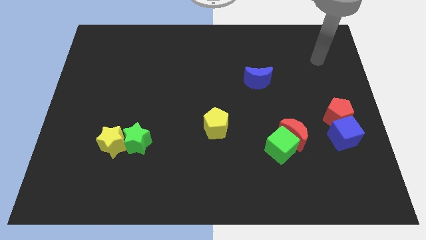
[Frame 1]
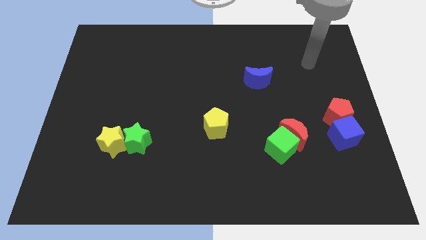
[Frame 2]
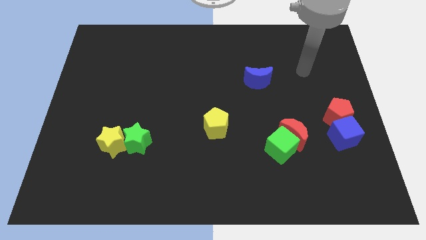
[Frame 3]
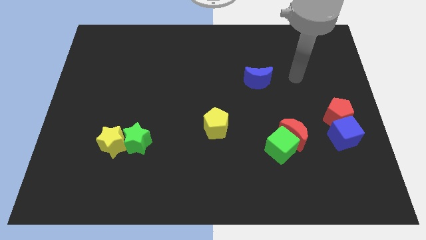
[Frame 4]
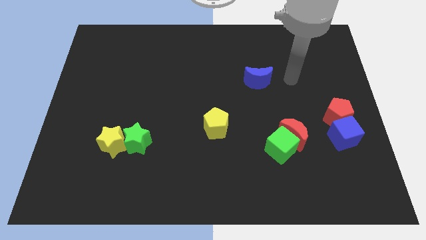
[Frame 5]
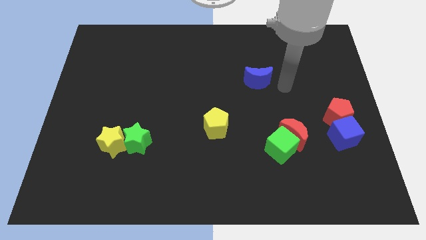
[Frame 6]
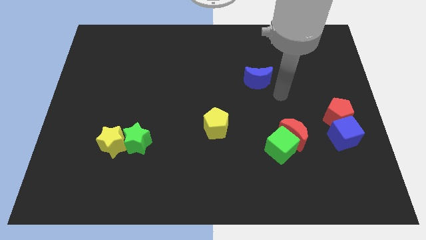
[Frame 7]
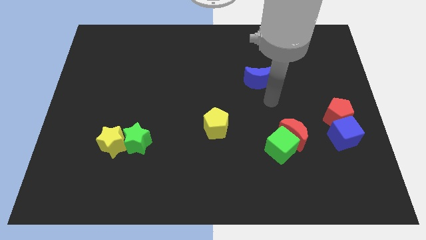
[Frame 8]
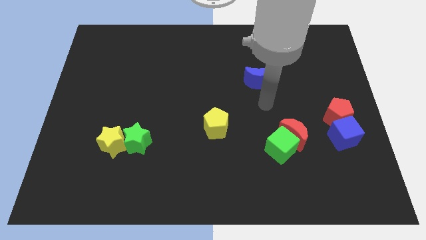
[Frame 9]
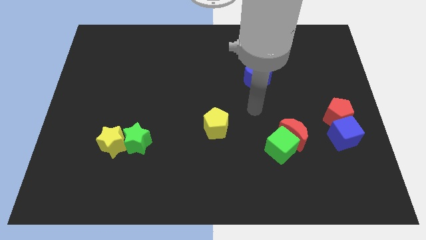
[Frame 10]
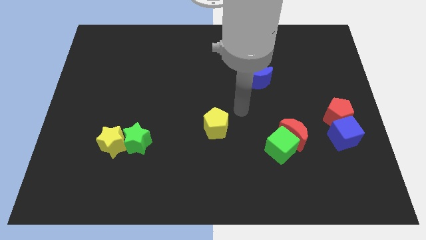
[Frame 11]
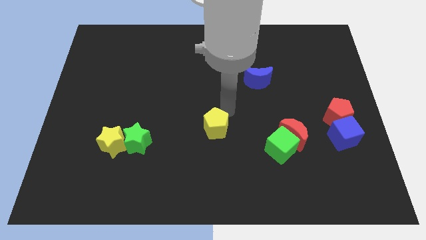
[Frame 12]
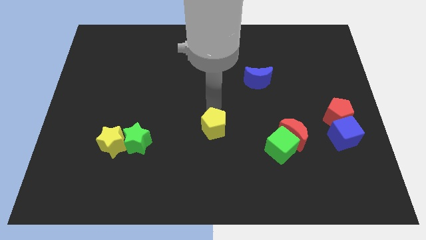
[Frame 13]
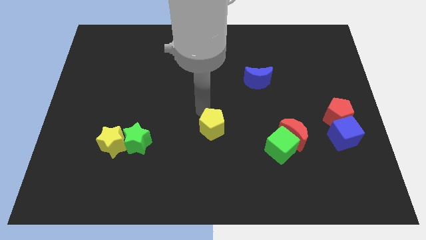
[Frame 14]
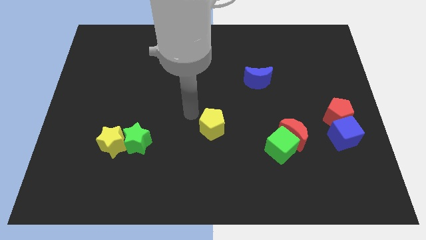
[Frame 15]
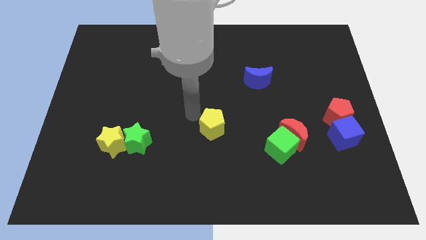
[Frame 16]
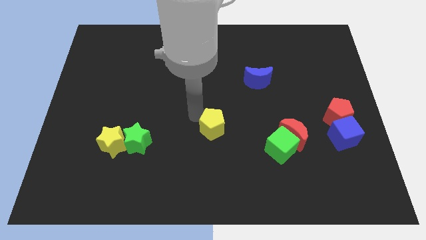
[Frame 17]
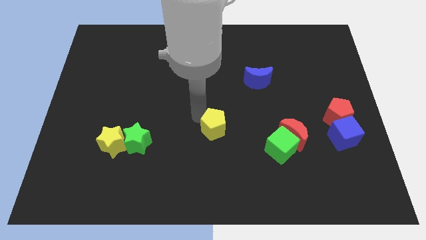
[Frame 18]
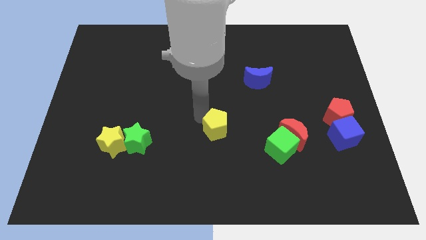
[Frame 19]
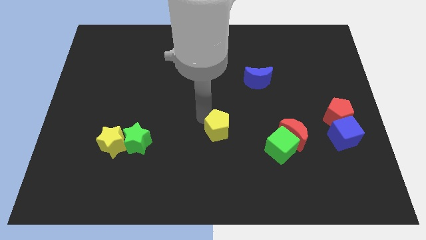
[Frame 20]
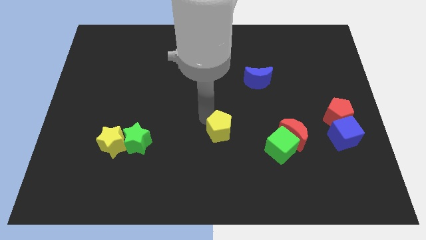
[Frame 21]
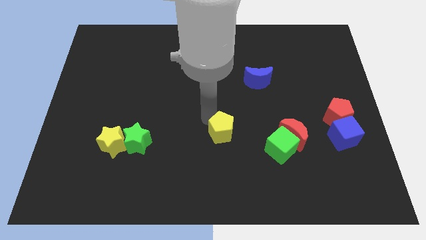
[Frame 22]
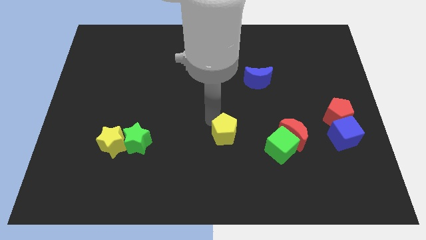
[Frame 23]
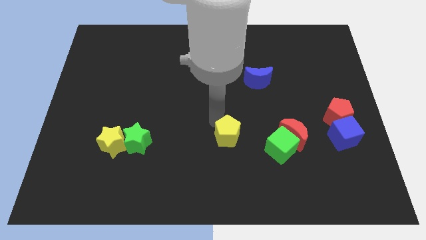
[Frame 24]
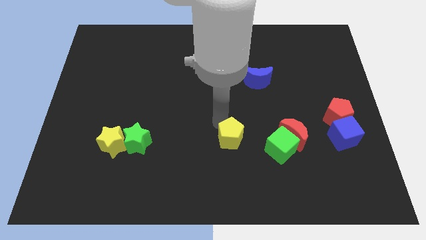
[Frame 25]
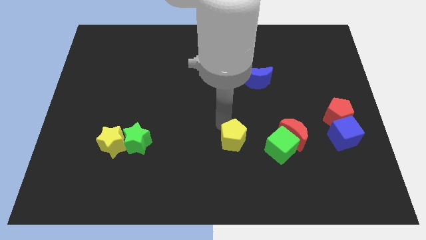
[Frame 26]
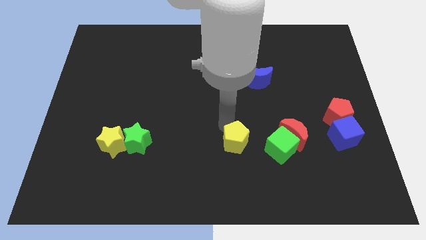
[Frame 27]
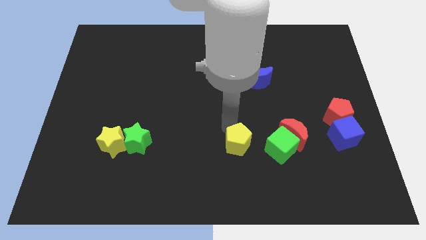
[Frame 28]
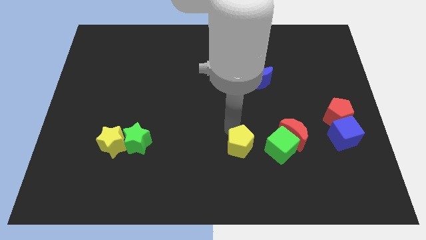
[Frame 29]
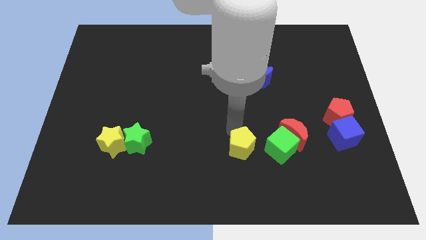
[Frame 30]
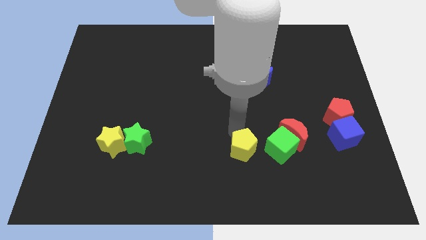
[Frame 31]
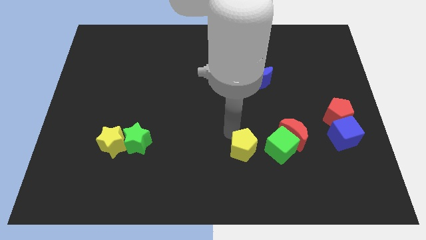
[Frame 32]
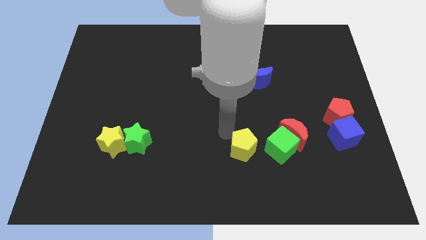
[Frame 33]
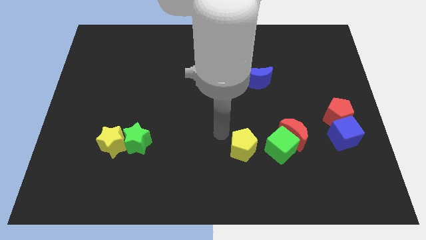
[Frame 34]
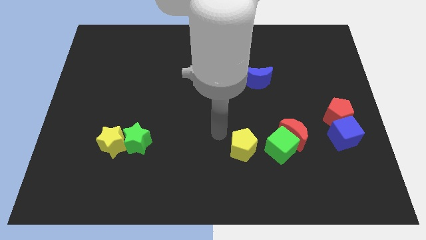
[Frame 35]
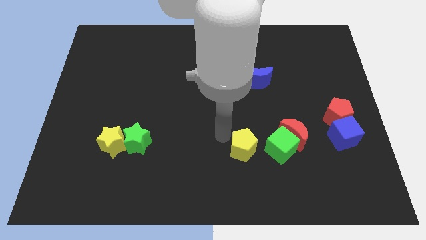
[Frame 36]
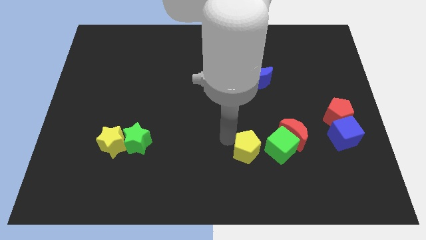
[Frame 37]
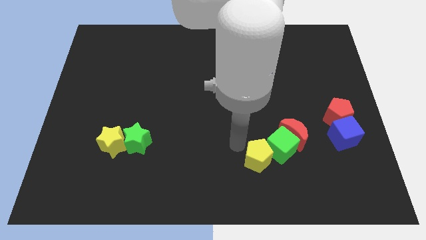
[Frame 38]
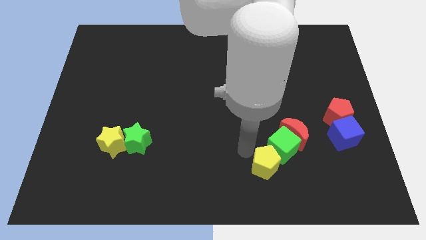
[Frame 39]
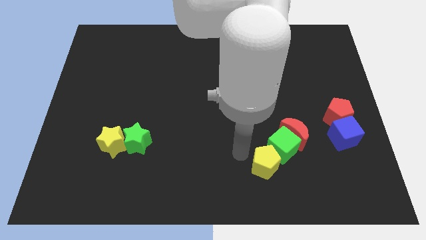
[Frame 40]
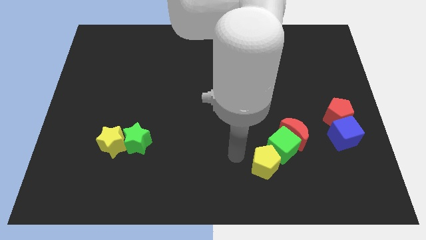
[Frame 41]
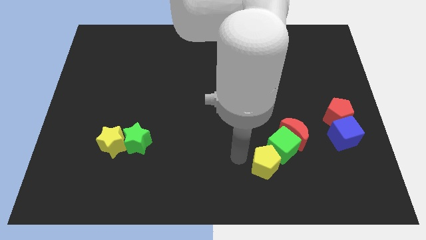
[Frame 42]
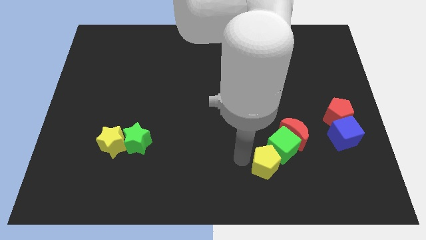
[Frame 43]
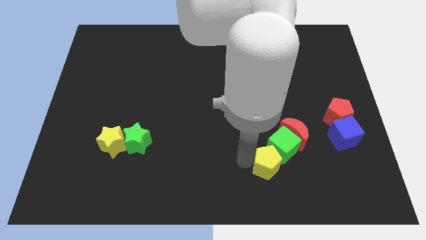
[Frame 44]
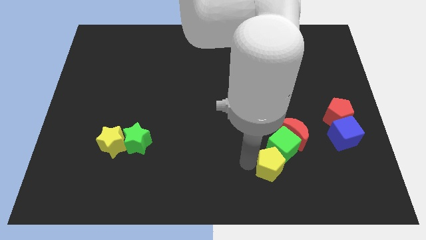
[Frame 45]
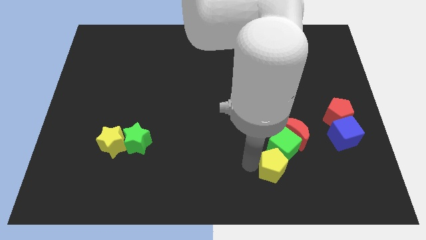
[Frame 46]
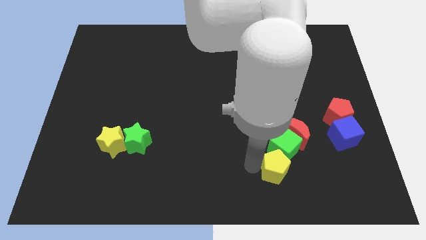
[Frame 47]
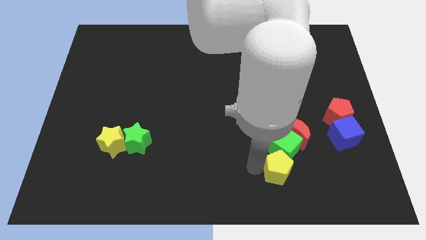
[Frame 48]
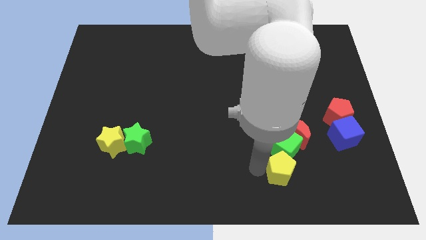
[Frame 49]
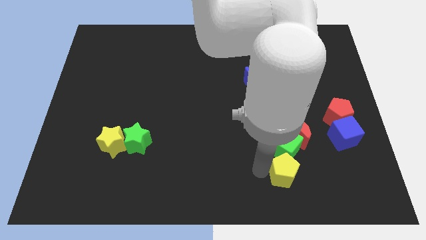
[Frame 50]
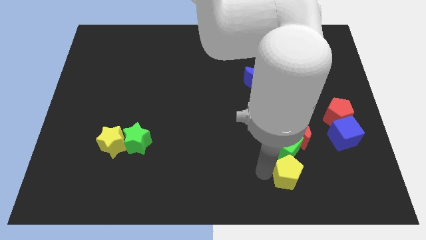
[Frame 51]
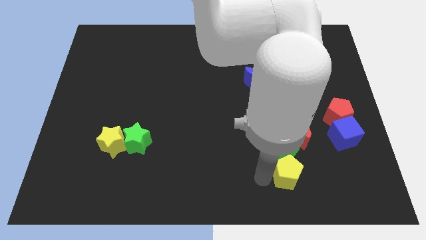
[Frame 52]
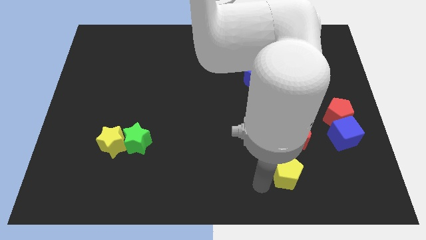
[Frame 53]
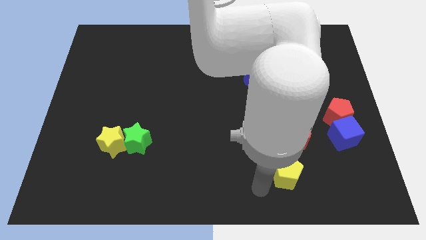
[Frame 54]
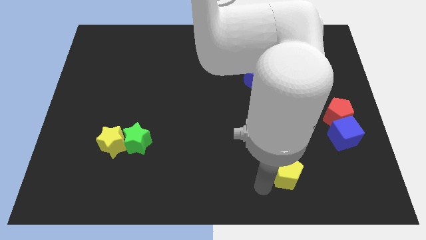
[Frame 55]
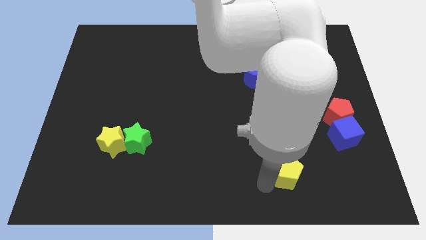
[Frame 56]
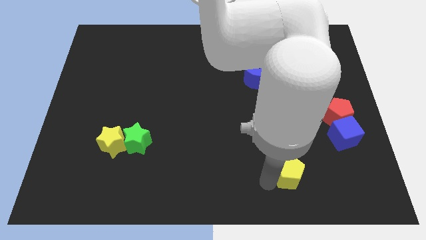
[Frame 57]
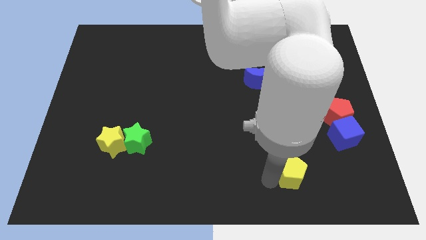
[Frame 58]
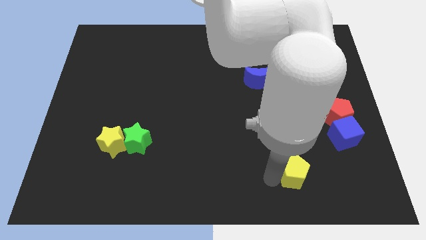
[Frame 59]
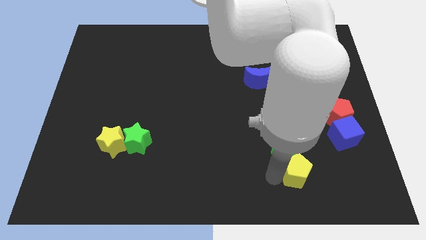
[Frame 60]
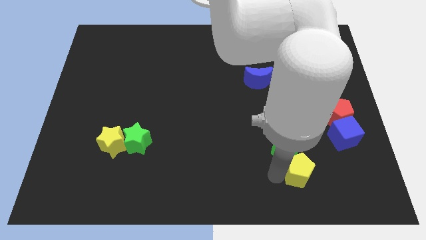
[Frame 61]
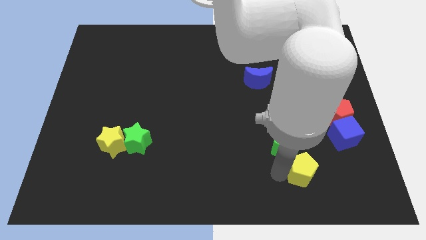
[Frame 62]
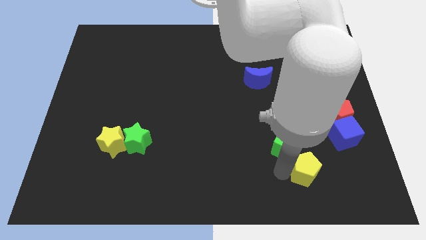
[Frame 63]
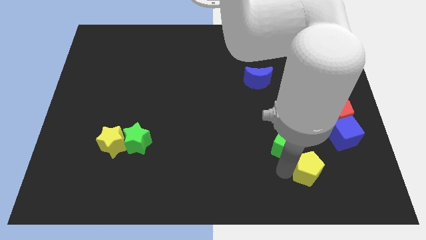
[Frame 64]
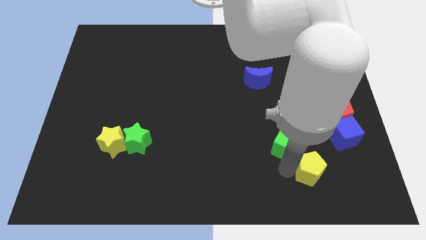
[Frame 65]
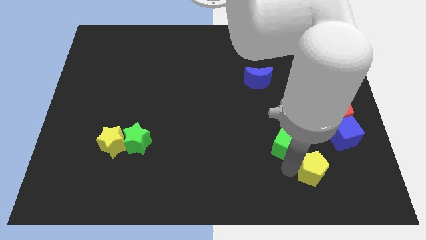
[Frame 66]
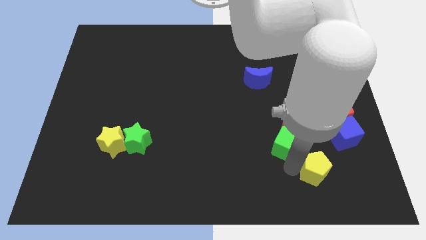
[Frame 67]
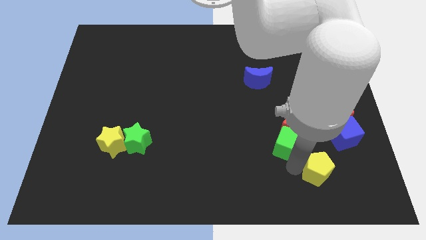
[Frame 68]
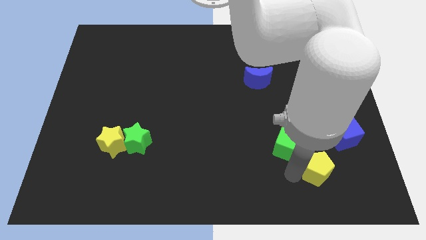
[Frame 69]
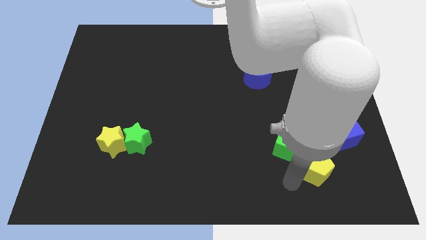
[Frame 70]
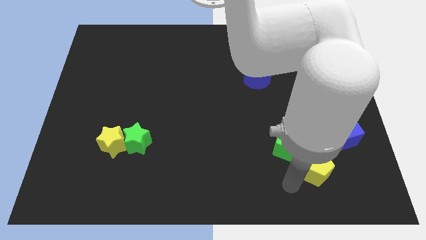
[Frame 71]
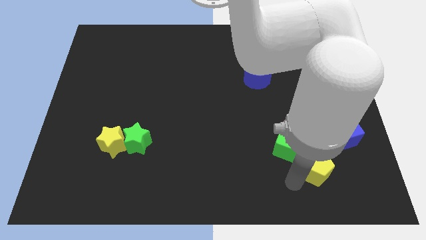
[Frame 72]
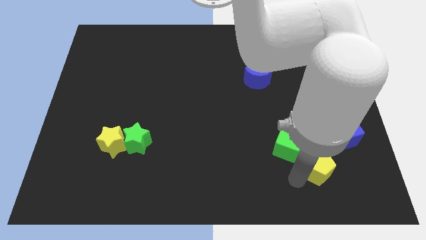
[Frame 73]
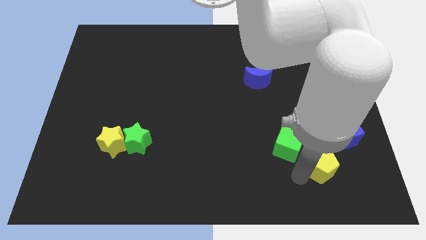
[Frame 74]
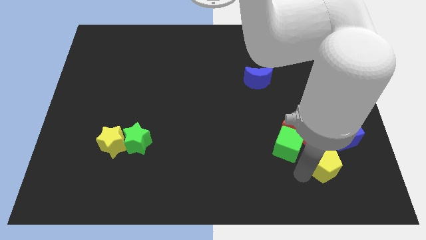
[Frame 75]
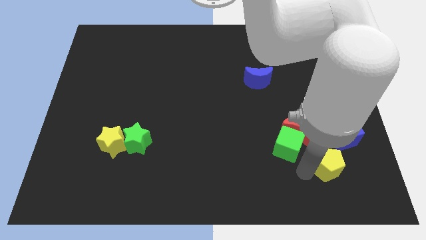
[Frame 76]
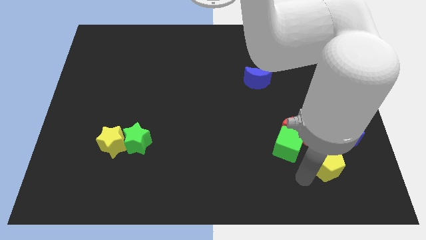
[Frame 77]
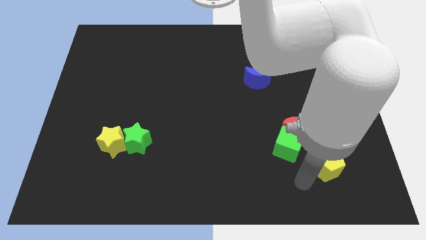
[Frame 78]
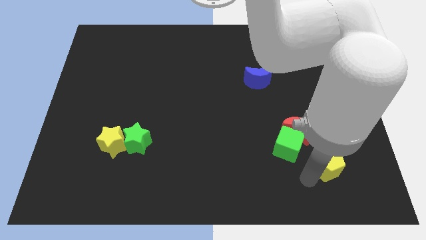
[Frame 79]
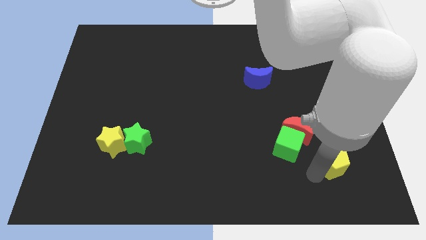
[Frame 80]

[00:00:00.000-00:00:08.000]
slide the yellow pentagon to the bottom side of the red pentagon

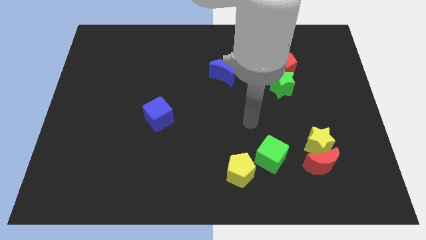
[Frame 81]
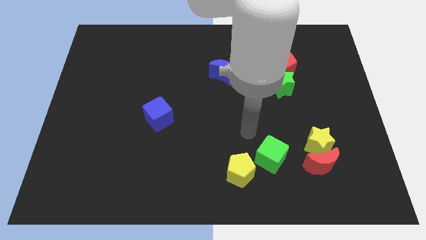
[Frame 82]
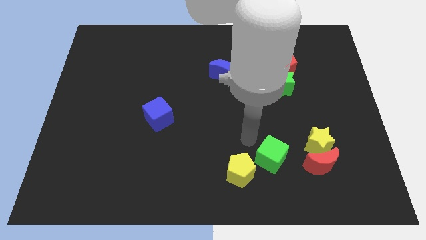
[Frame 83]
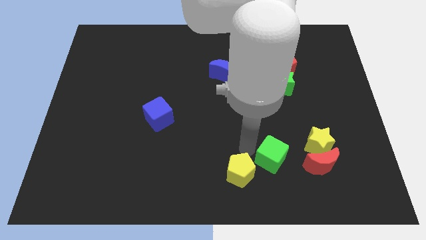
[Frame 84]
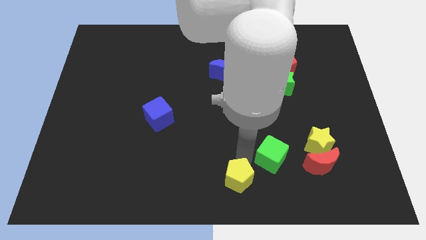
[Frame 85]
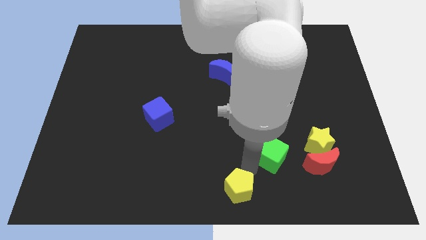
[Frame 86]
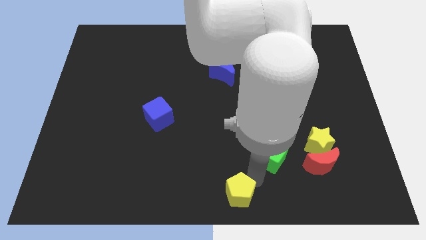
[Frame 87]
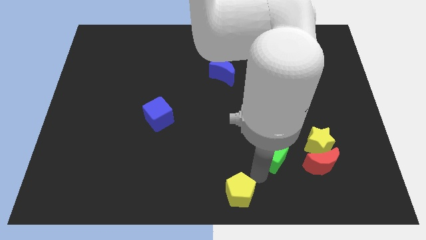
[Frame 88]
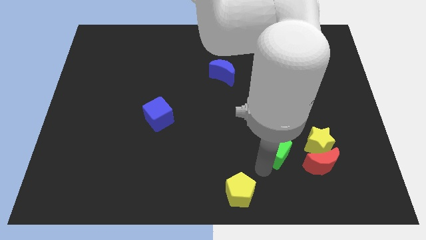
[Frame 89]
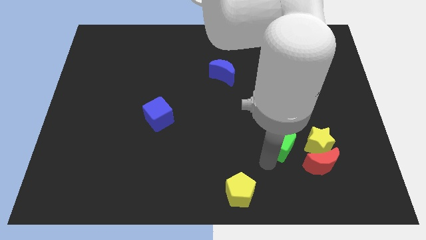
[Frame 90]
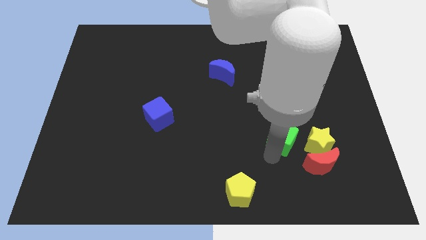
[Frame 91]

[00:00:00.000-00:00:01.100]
slide the green cube diagonally up and to the left of the yellow star
